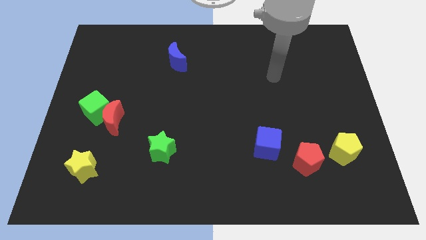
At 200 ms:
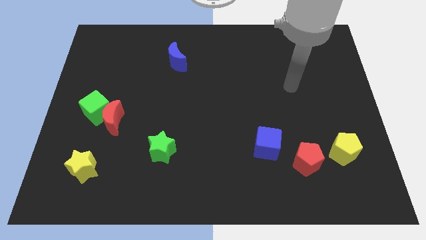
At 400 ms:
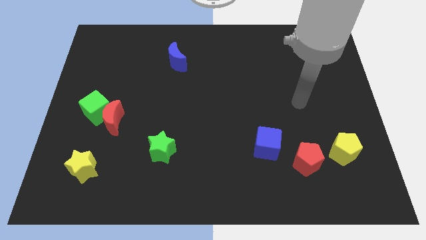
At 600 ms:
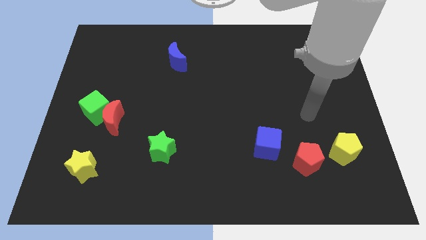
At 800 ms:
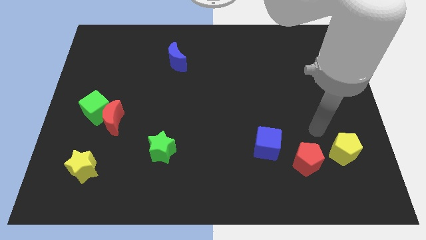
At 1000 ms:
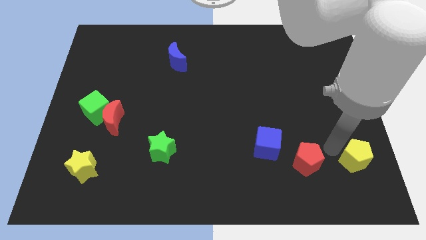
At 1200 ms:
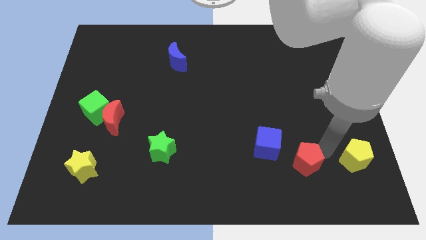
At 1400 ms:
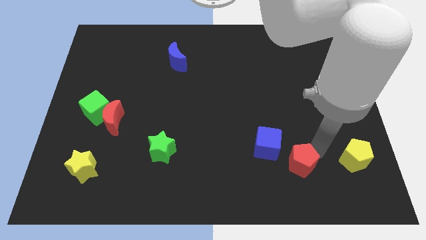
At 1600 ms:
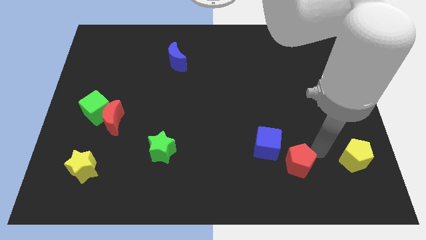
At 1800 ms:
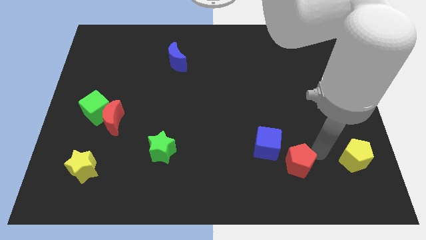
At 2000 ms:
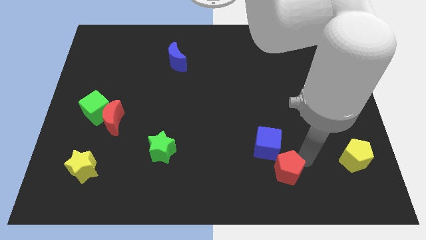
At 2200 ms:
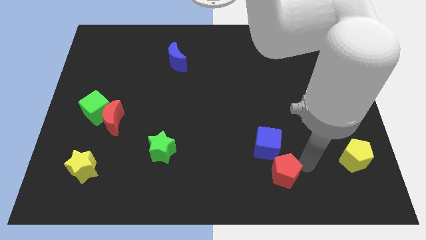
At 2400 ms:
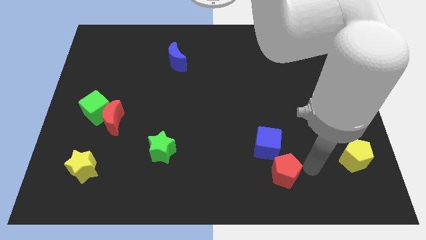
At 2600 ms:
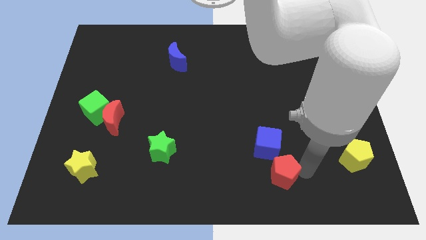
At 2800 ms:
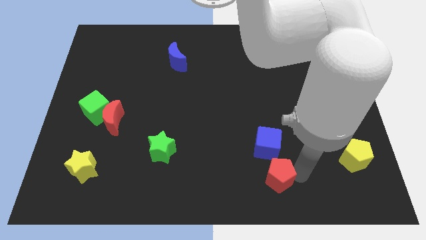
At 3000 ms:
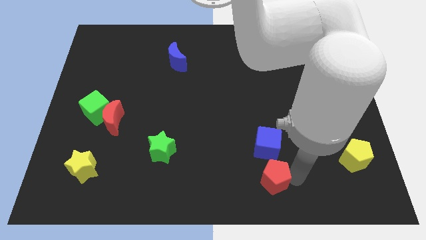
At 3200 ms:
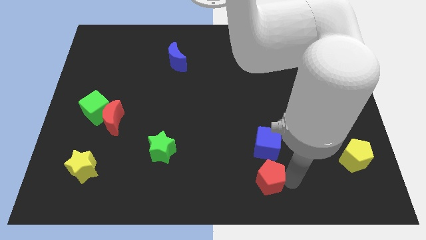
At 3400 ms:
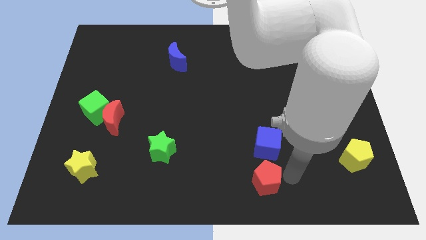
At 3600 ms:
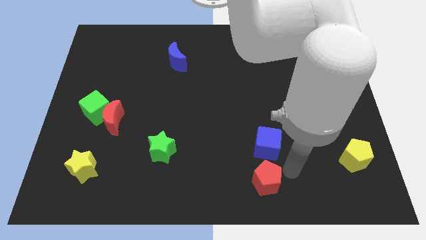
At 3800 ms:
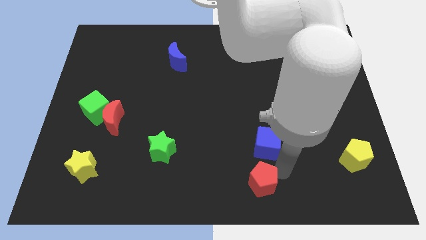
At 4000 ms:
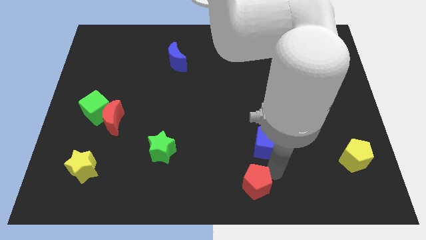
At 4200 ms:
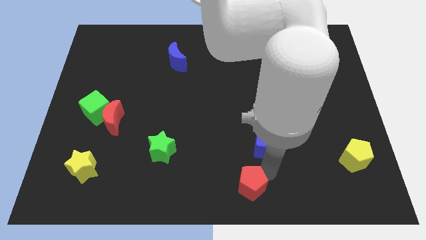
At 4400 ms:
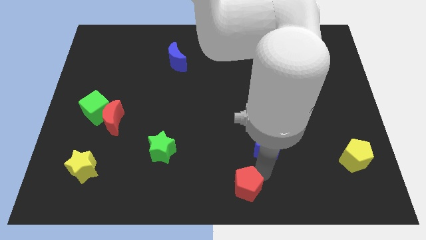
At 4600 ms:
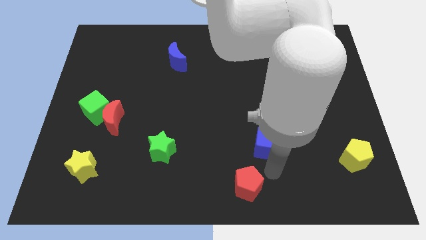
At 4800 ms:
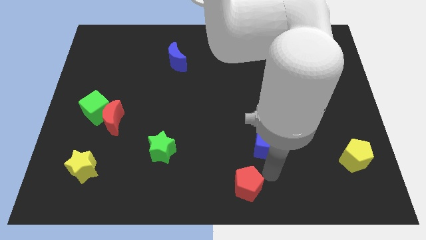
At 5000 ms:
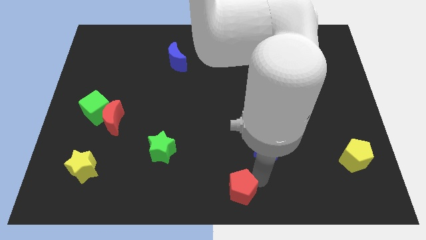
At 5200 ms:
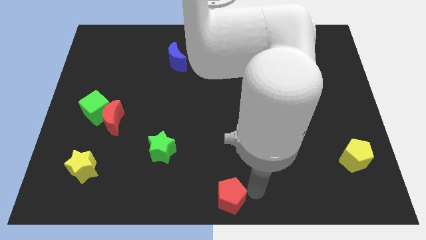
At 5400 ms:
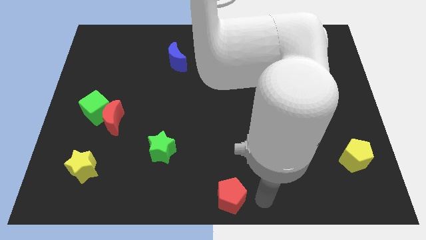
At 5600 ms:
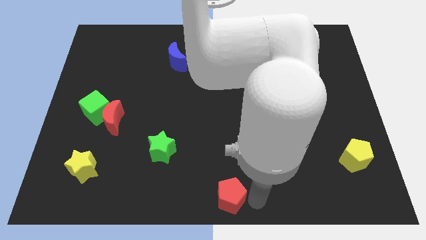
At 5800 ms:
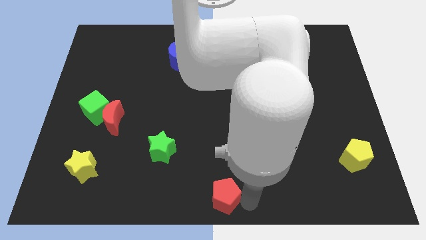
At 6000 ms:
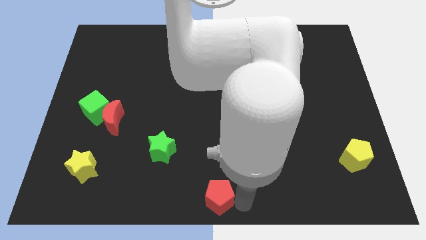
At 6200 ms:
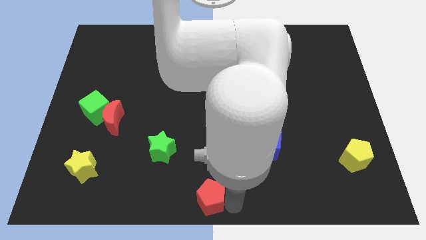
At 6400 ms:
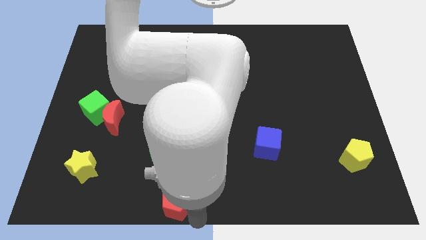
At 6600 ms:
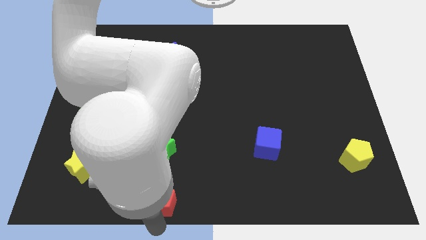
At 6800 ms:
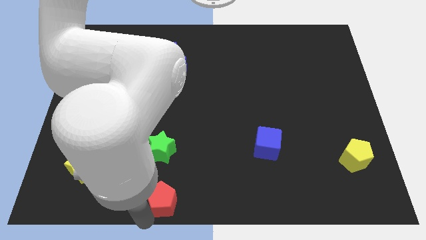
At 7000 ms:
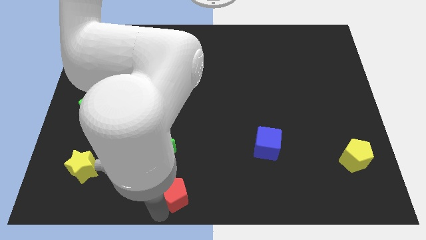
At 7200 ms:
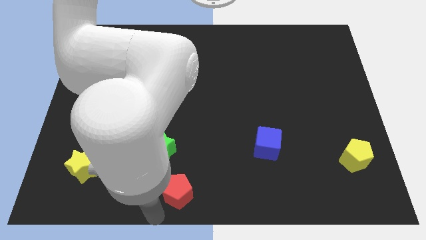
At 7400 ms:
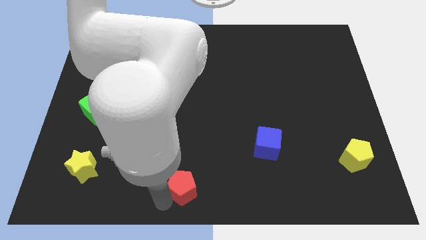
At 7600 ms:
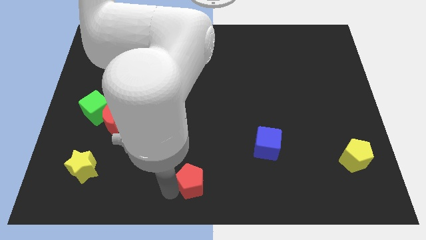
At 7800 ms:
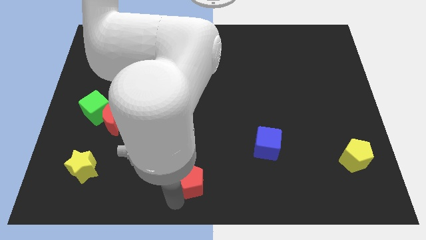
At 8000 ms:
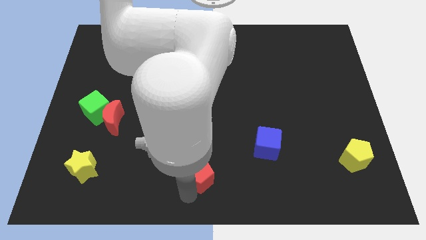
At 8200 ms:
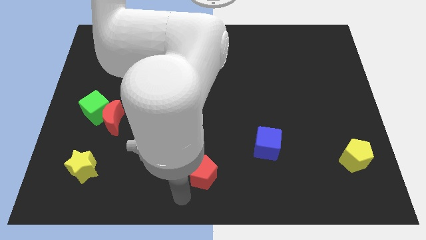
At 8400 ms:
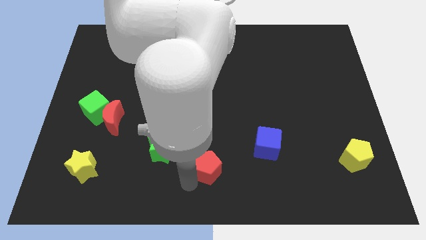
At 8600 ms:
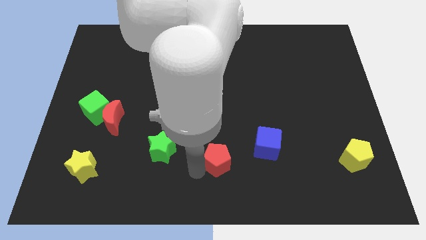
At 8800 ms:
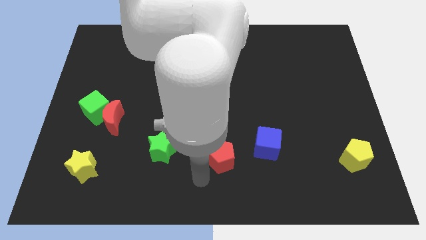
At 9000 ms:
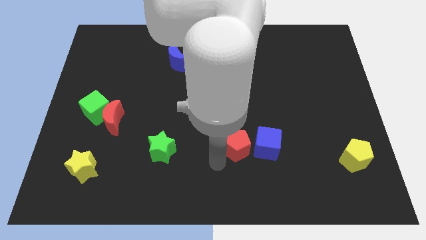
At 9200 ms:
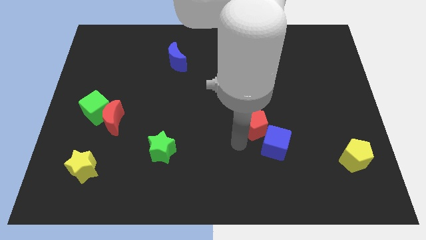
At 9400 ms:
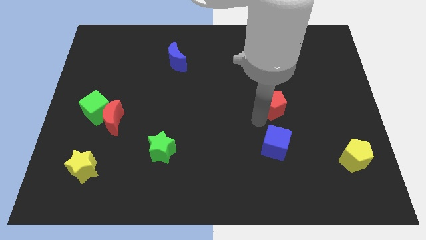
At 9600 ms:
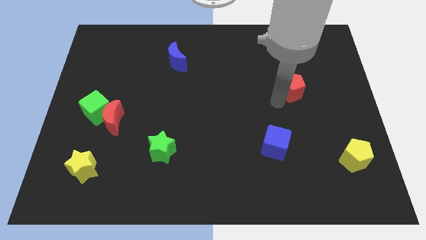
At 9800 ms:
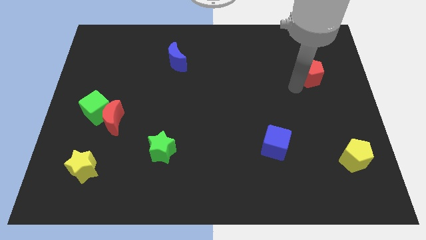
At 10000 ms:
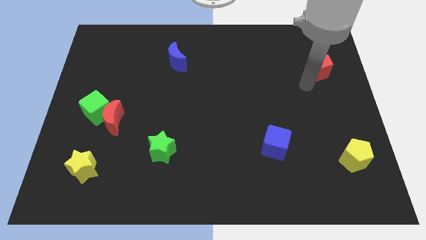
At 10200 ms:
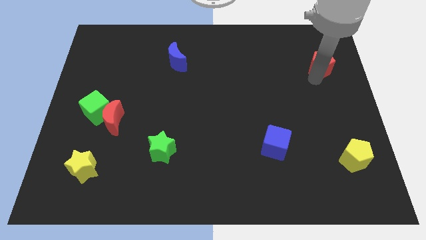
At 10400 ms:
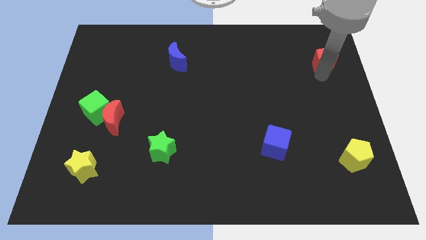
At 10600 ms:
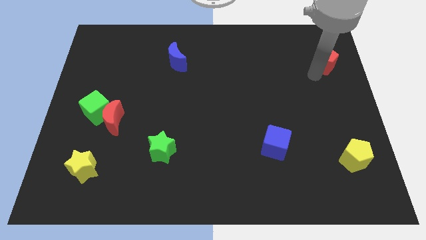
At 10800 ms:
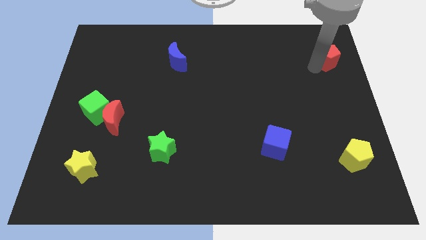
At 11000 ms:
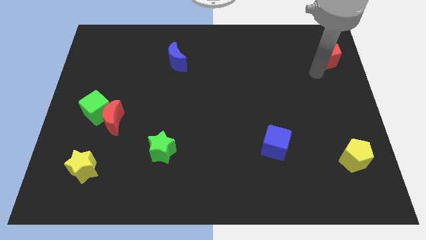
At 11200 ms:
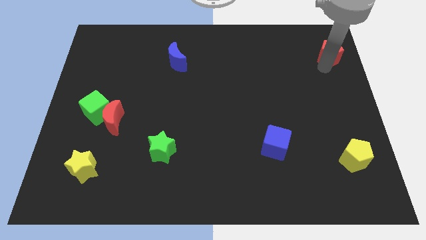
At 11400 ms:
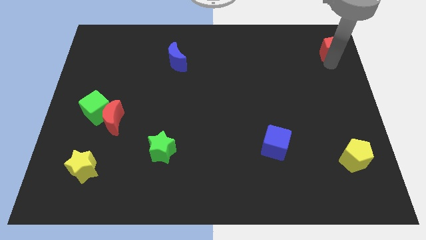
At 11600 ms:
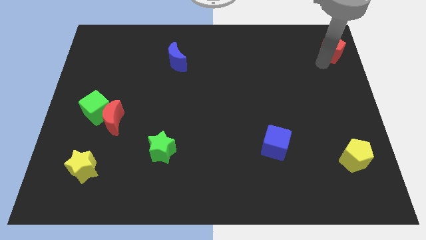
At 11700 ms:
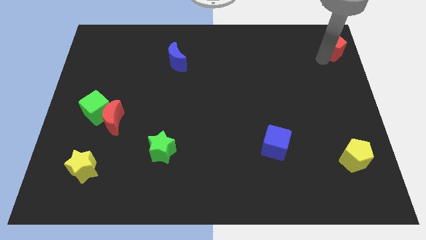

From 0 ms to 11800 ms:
put the red pentagon to the upper right corner

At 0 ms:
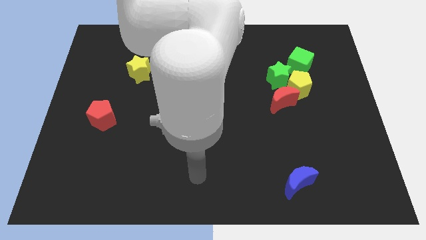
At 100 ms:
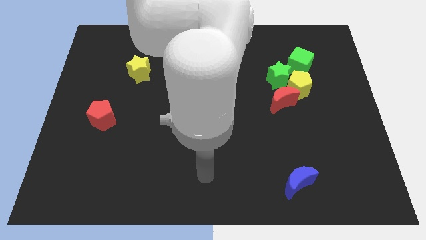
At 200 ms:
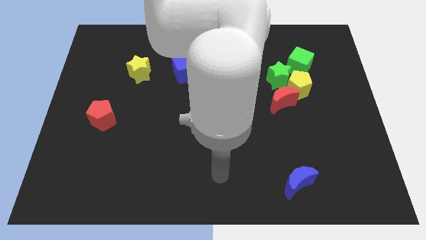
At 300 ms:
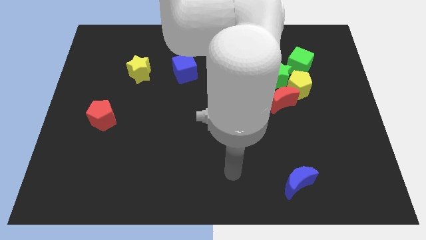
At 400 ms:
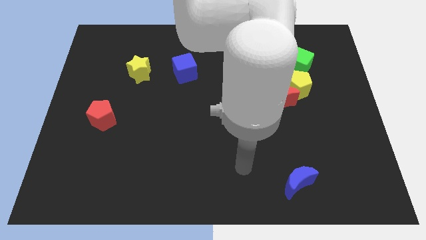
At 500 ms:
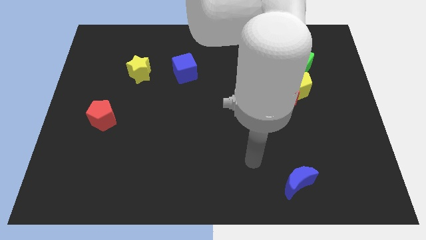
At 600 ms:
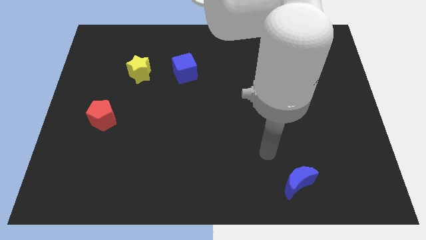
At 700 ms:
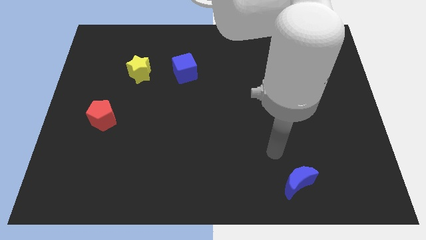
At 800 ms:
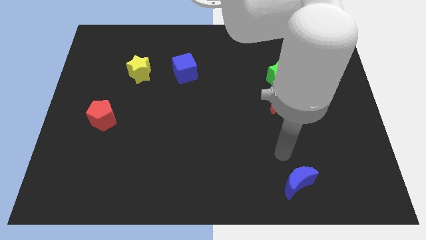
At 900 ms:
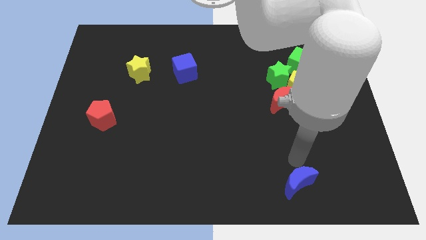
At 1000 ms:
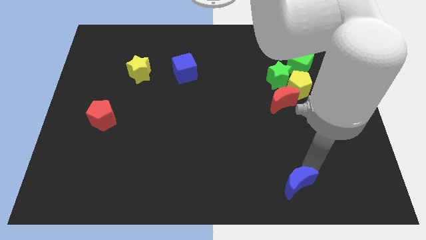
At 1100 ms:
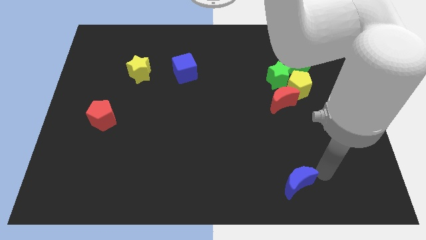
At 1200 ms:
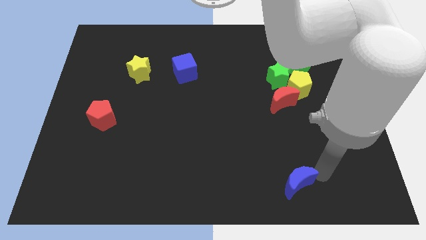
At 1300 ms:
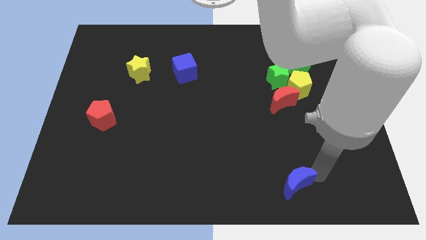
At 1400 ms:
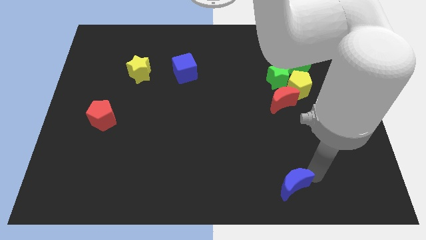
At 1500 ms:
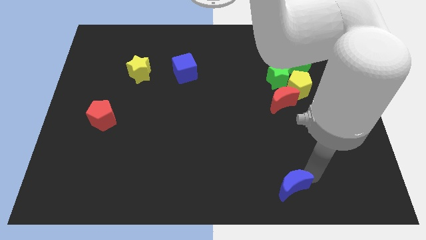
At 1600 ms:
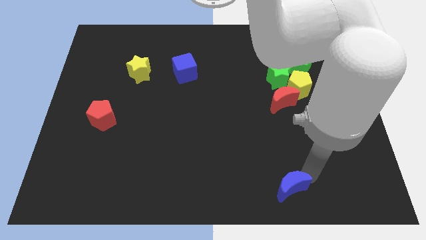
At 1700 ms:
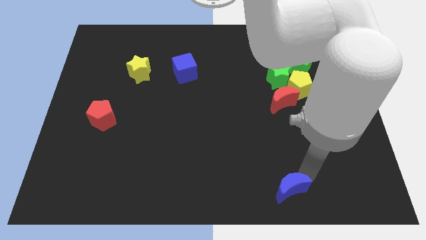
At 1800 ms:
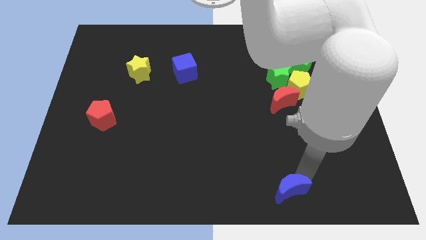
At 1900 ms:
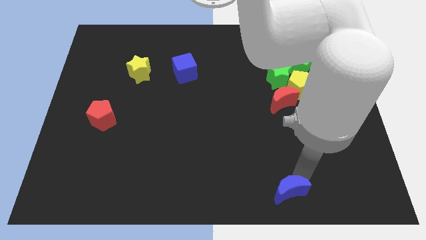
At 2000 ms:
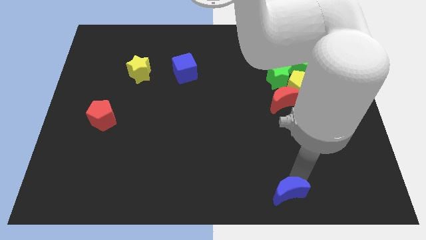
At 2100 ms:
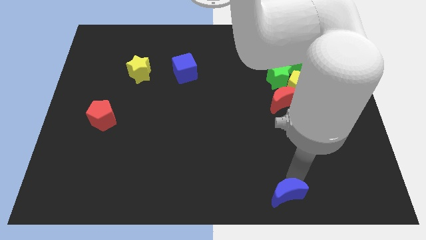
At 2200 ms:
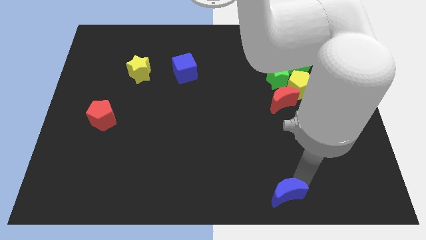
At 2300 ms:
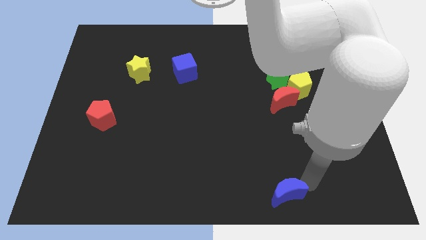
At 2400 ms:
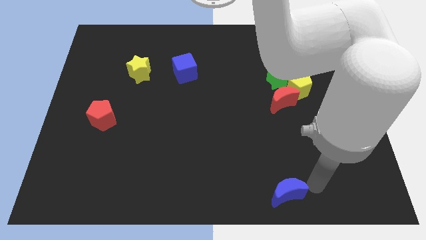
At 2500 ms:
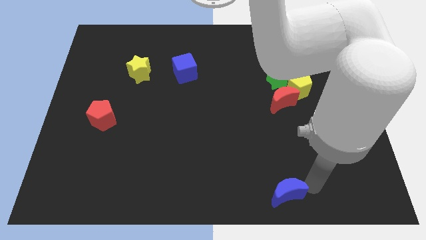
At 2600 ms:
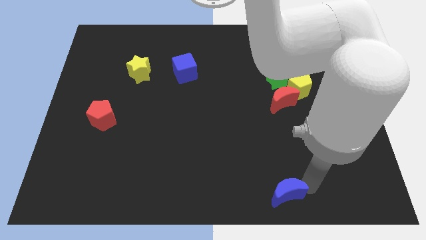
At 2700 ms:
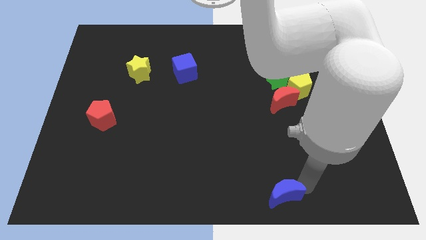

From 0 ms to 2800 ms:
push the blue moon to the bottom
